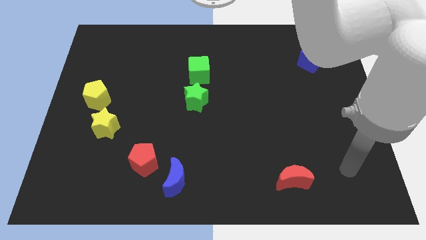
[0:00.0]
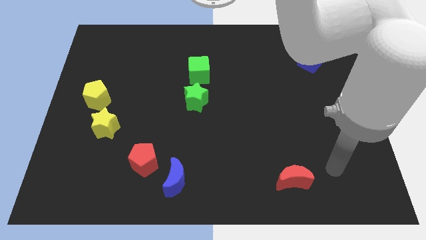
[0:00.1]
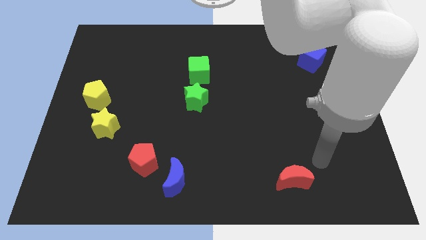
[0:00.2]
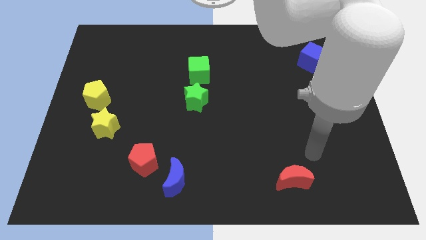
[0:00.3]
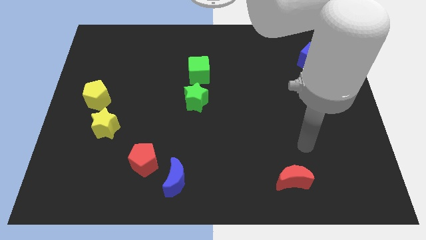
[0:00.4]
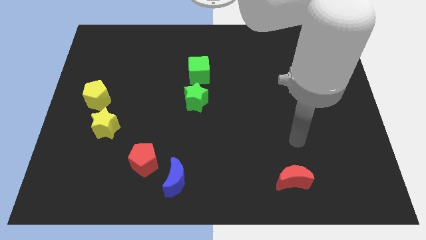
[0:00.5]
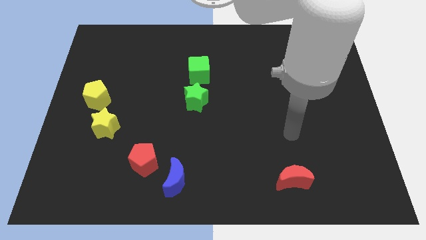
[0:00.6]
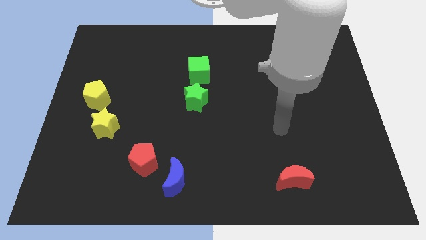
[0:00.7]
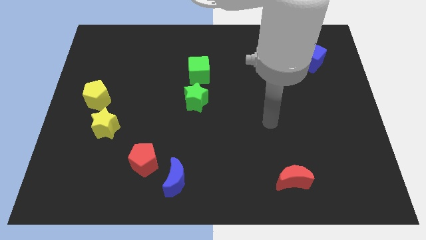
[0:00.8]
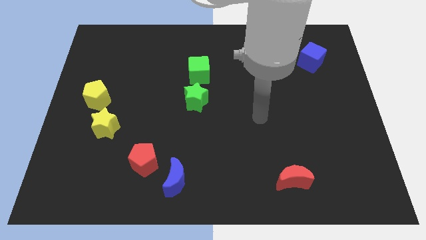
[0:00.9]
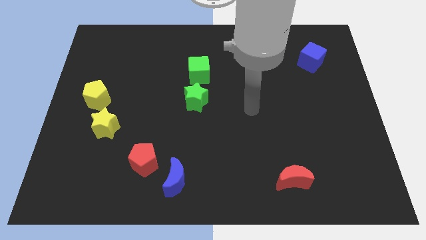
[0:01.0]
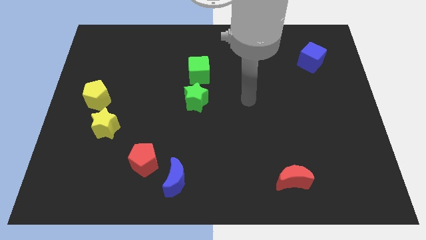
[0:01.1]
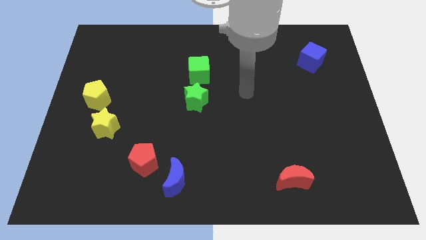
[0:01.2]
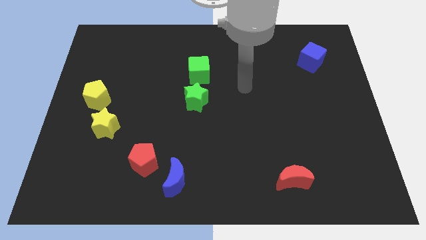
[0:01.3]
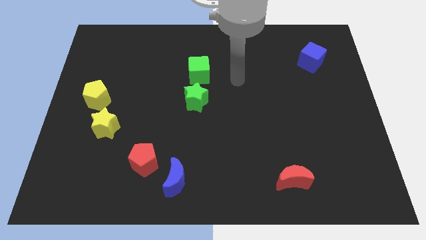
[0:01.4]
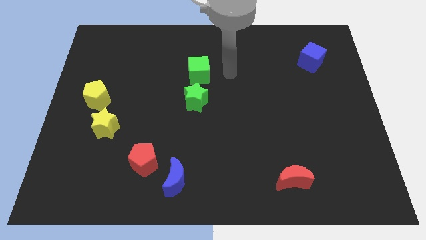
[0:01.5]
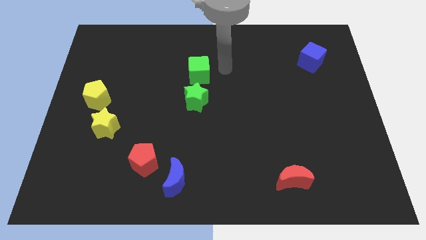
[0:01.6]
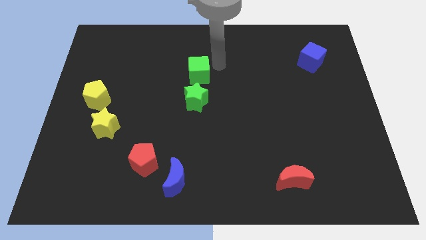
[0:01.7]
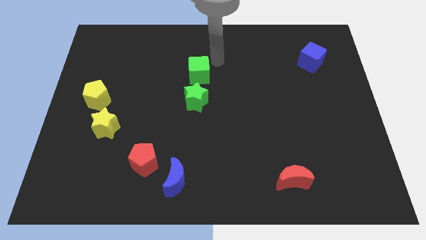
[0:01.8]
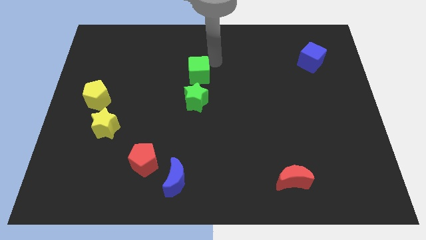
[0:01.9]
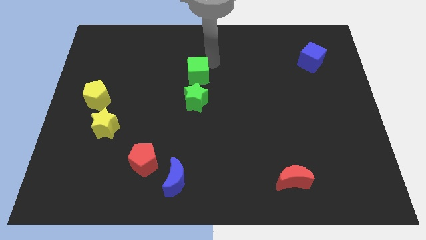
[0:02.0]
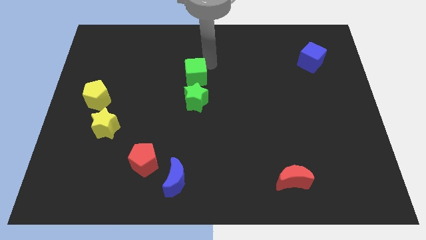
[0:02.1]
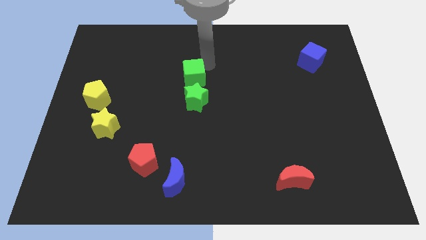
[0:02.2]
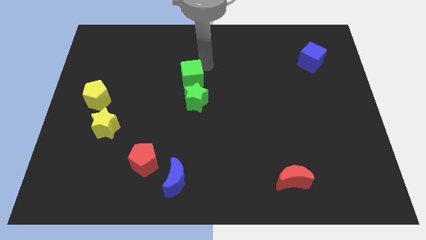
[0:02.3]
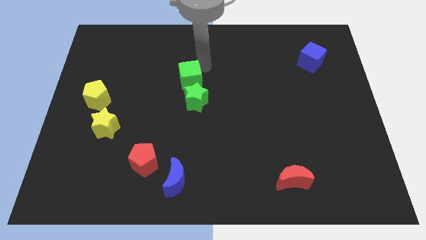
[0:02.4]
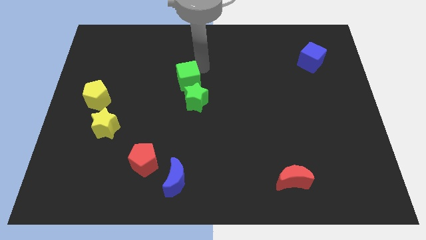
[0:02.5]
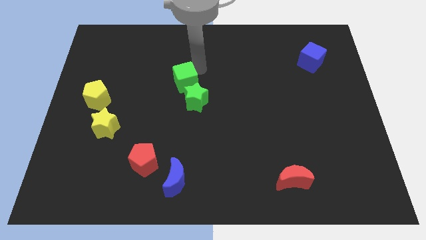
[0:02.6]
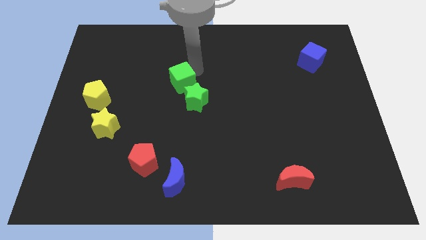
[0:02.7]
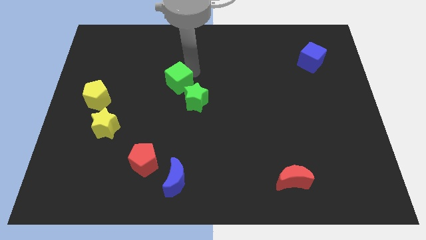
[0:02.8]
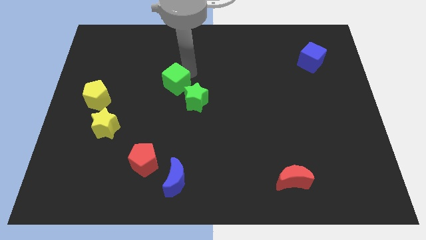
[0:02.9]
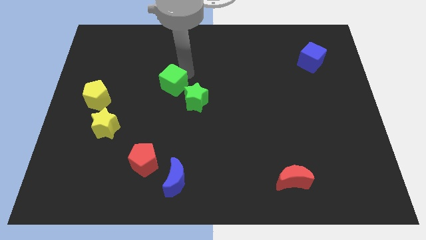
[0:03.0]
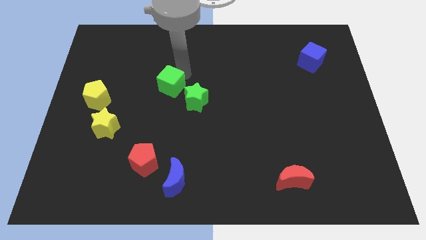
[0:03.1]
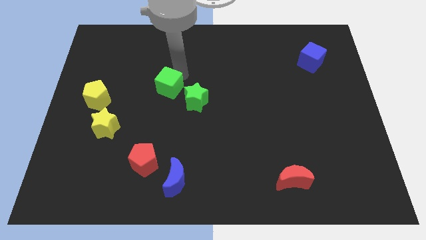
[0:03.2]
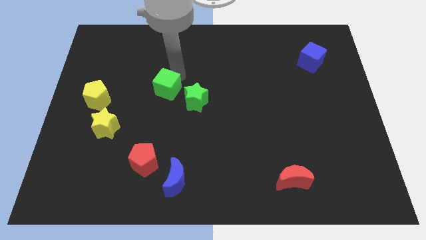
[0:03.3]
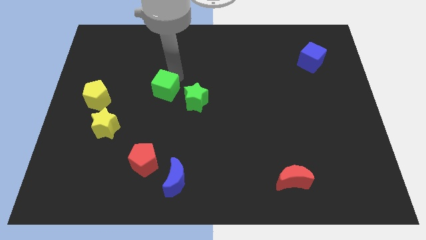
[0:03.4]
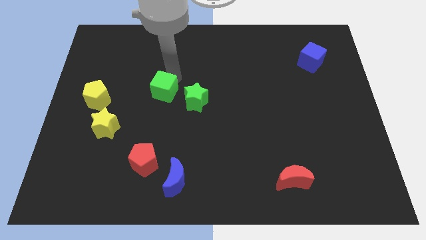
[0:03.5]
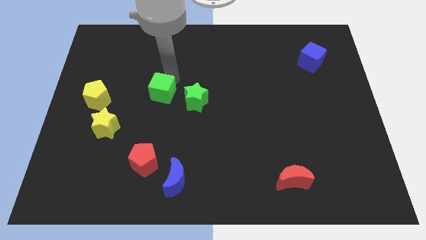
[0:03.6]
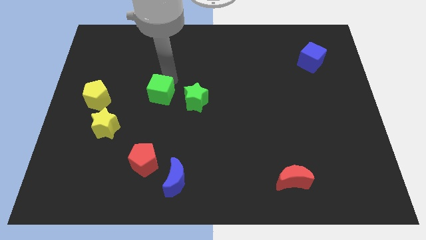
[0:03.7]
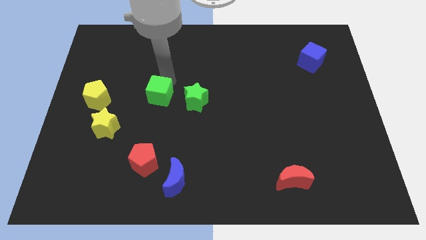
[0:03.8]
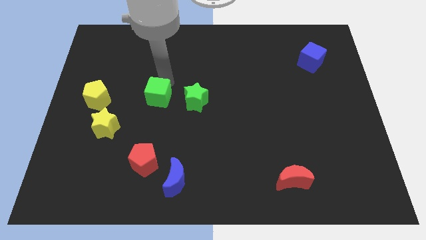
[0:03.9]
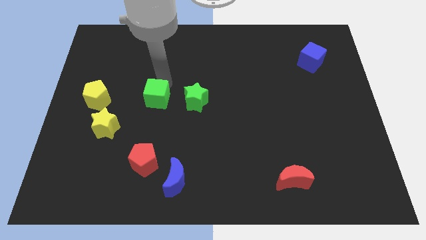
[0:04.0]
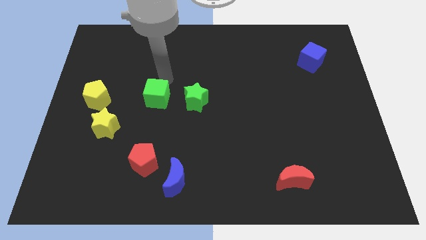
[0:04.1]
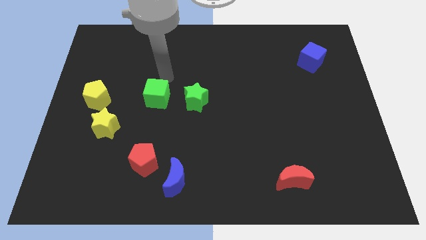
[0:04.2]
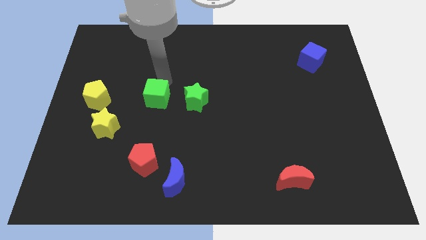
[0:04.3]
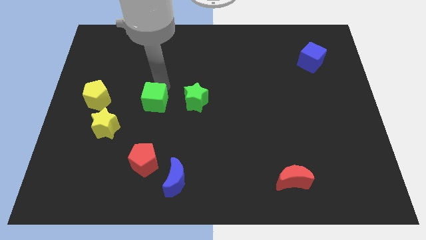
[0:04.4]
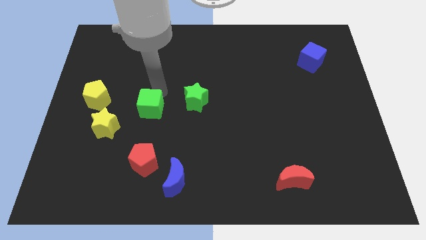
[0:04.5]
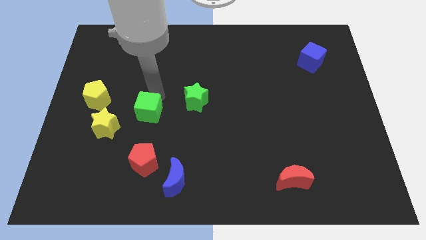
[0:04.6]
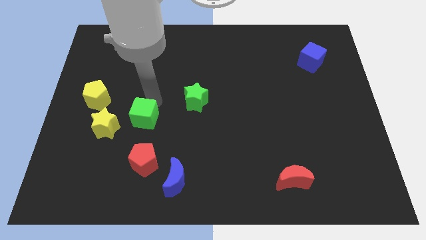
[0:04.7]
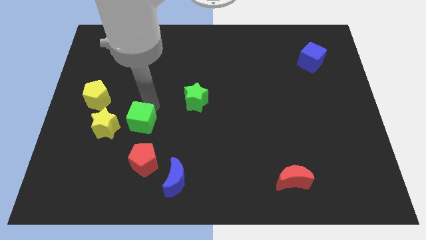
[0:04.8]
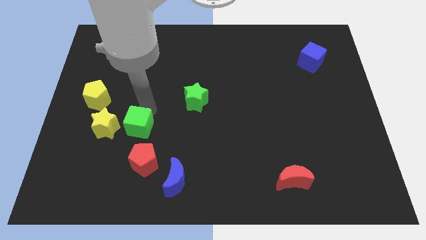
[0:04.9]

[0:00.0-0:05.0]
slide the green cube down and to the left diagonally

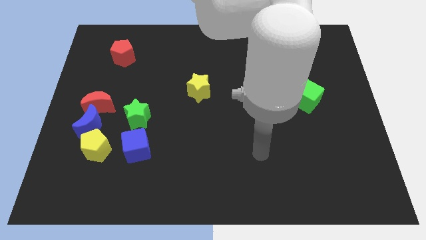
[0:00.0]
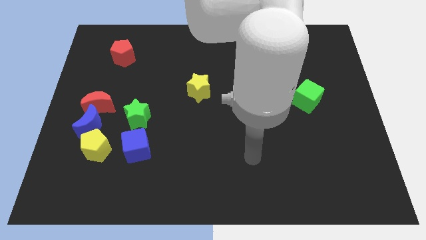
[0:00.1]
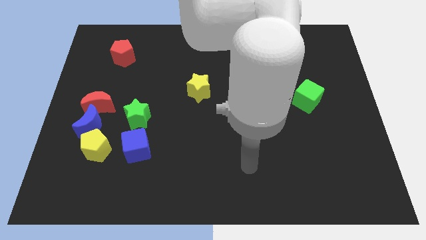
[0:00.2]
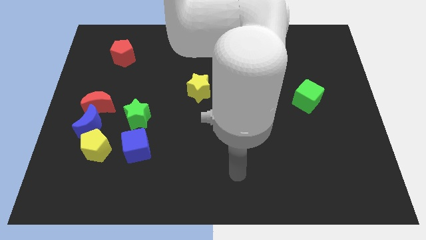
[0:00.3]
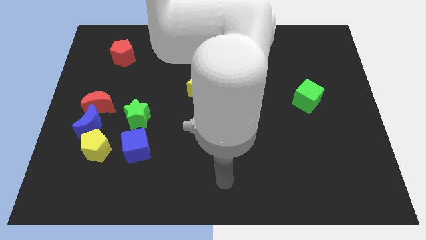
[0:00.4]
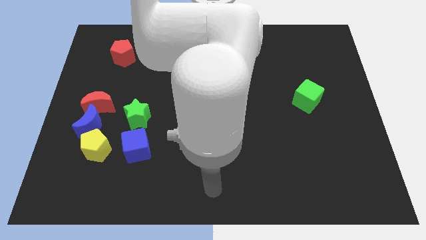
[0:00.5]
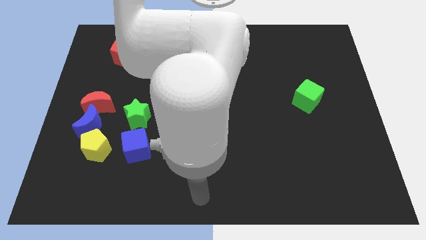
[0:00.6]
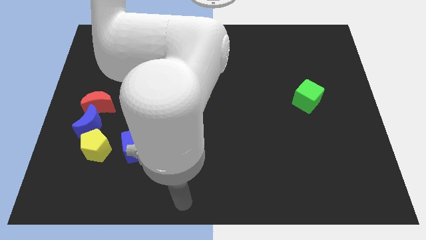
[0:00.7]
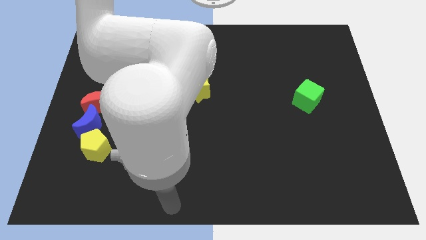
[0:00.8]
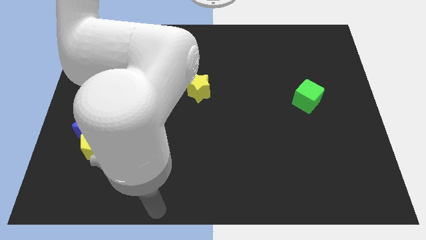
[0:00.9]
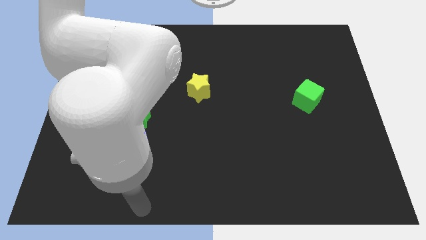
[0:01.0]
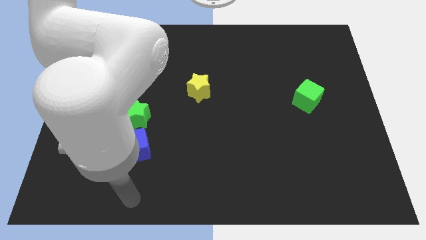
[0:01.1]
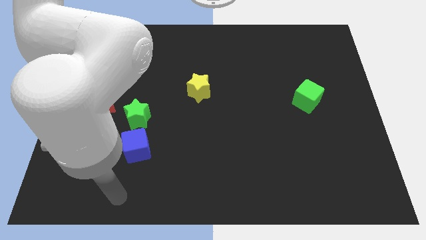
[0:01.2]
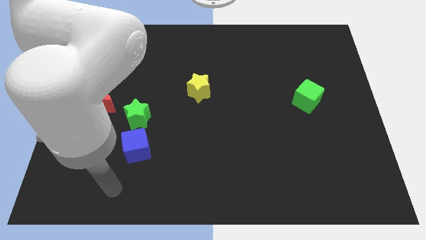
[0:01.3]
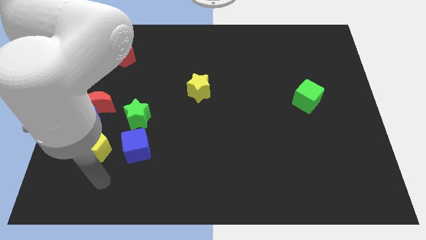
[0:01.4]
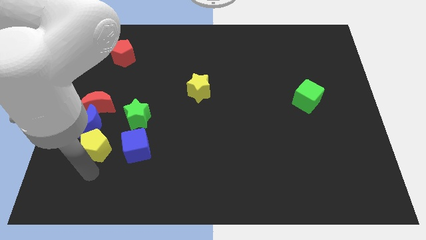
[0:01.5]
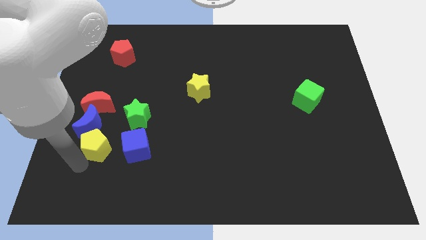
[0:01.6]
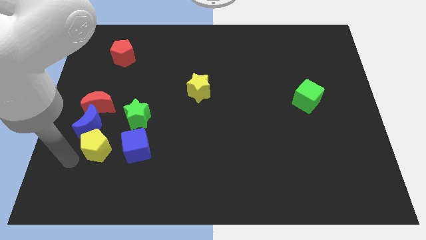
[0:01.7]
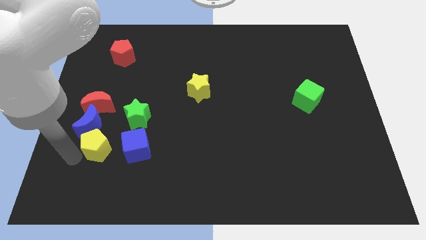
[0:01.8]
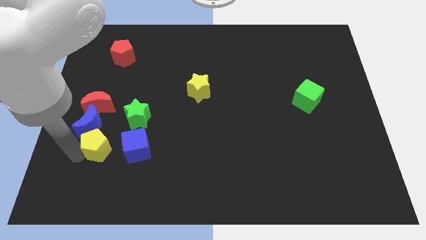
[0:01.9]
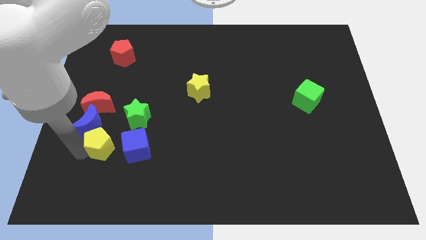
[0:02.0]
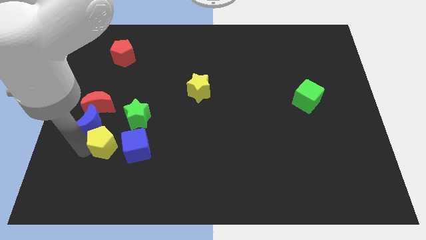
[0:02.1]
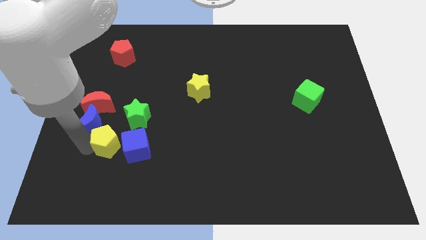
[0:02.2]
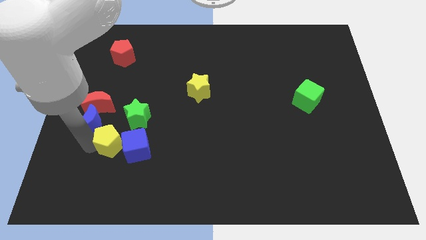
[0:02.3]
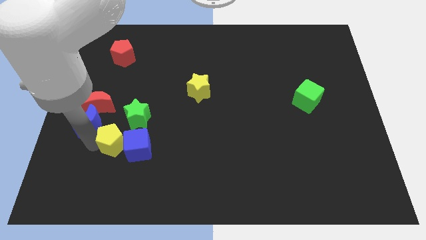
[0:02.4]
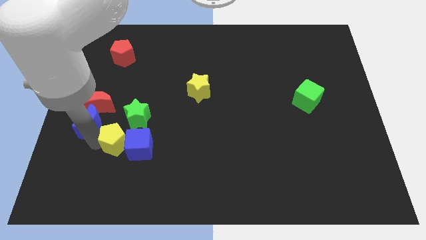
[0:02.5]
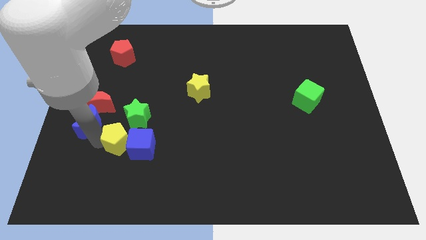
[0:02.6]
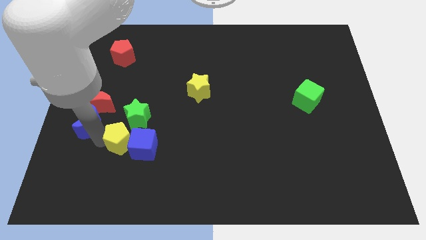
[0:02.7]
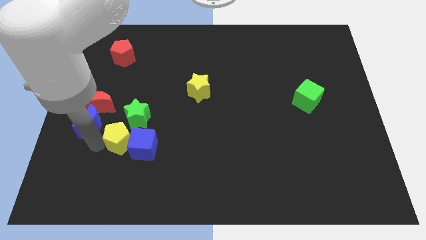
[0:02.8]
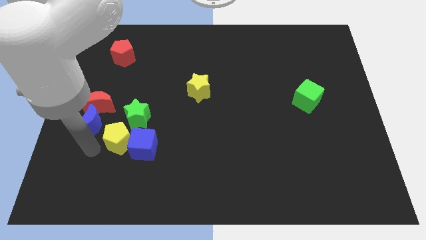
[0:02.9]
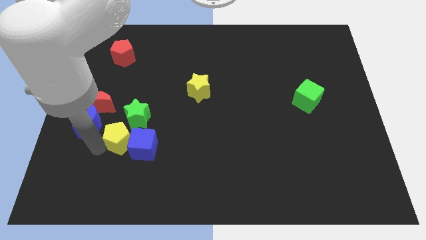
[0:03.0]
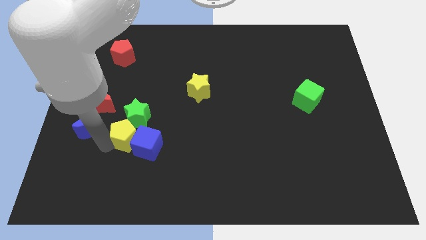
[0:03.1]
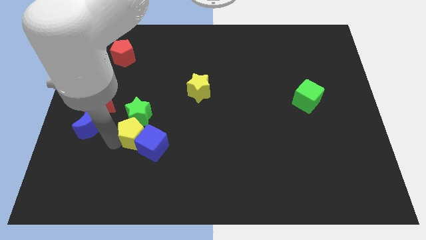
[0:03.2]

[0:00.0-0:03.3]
slightly move the yellow pentagon right

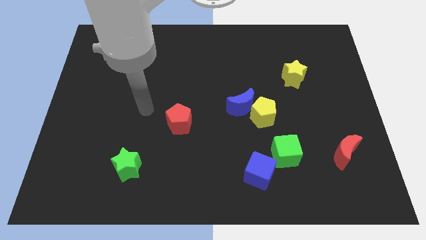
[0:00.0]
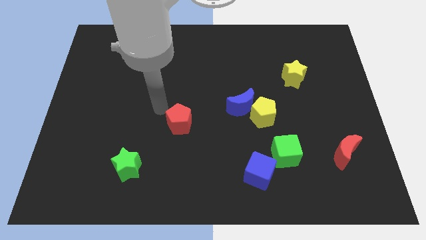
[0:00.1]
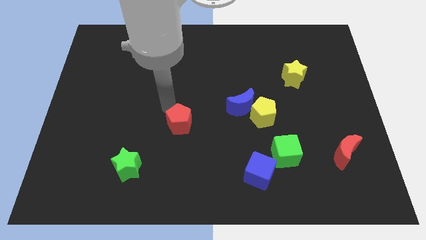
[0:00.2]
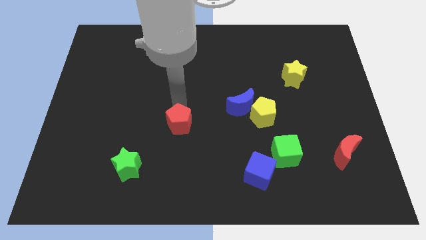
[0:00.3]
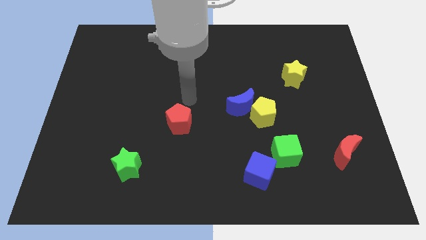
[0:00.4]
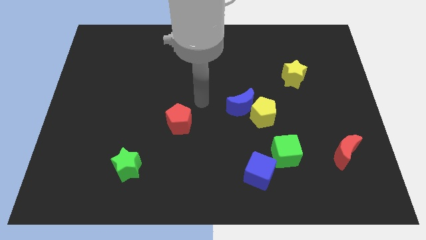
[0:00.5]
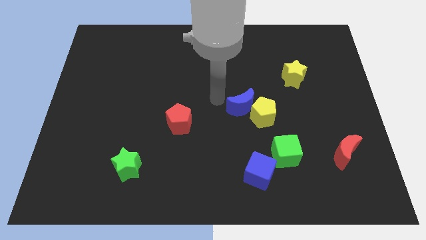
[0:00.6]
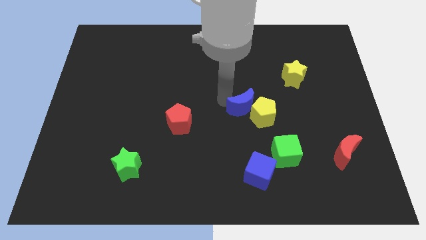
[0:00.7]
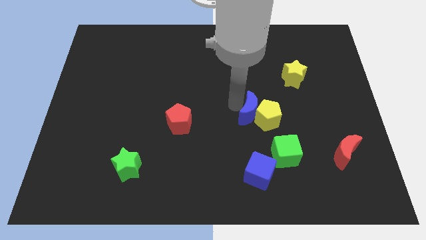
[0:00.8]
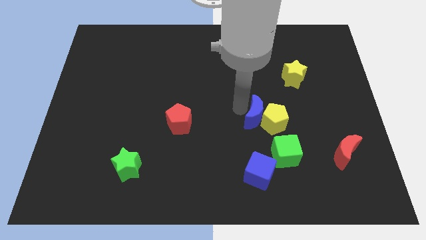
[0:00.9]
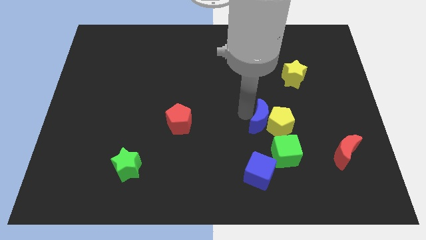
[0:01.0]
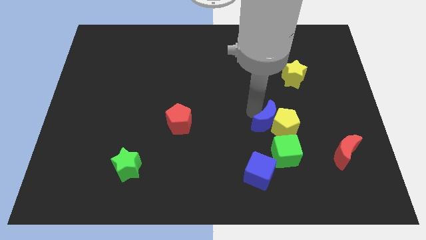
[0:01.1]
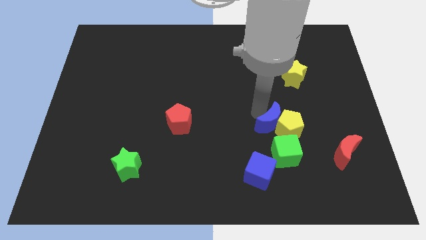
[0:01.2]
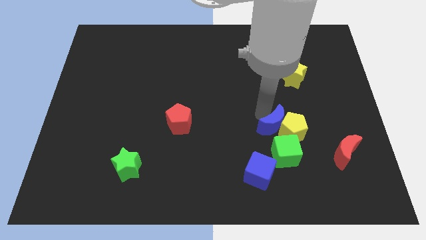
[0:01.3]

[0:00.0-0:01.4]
move the yellow pentagon downwards and to the right a little bit
